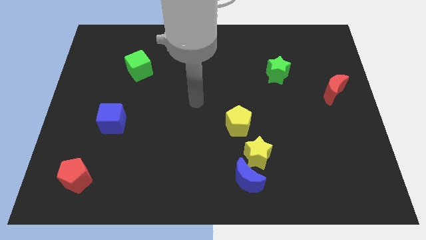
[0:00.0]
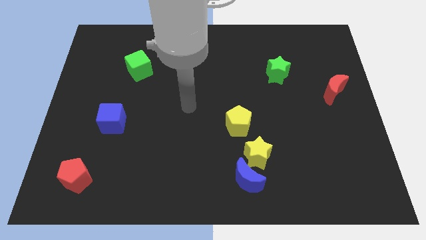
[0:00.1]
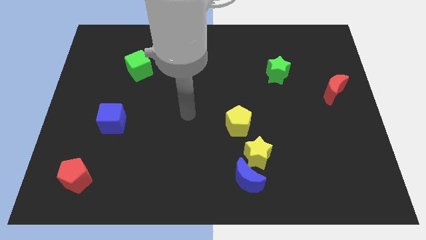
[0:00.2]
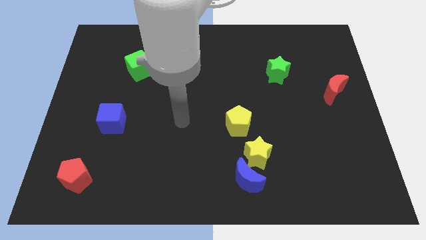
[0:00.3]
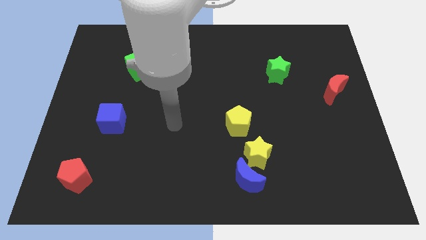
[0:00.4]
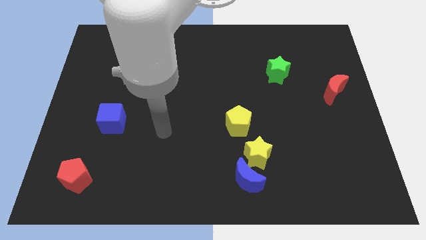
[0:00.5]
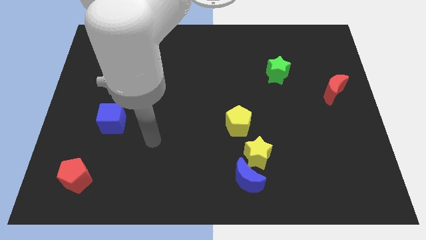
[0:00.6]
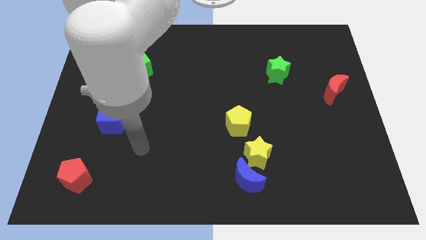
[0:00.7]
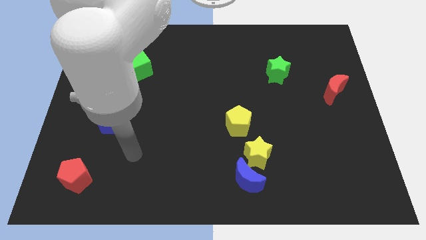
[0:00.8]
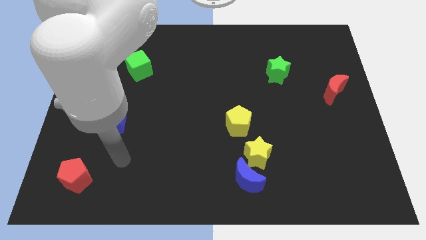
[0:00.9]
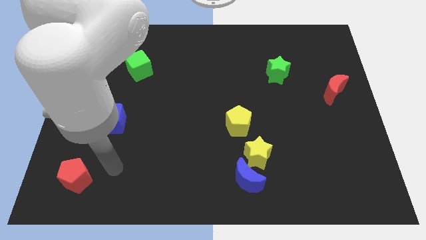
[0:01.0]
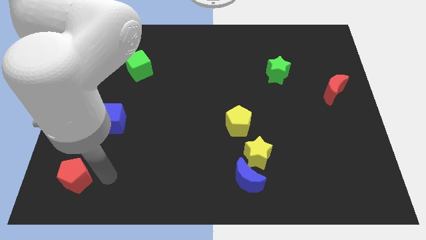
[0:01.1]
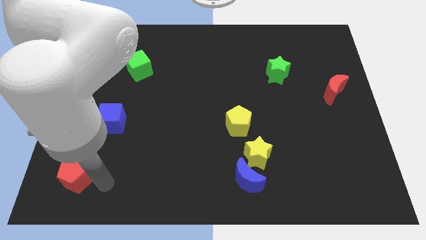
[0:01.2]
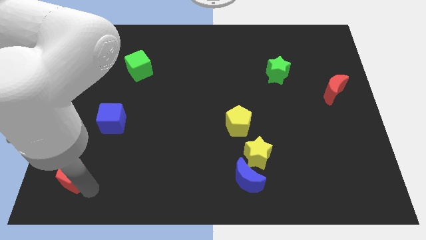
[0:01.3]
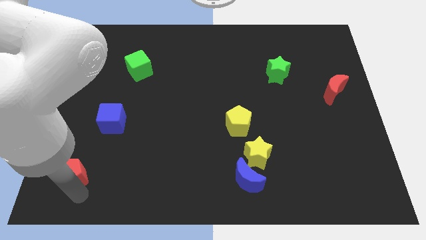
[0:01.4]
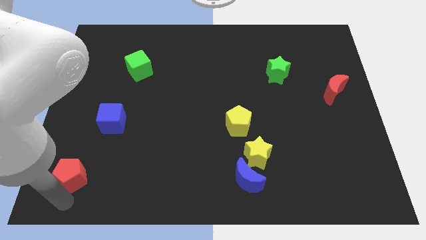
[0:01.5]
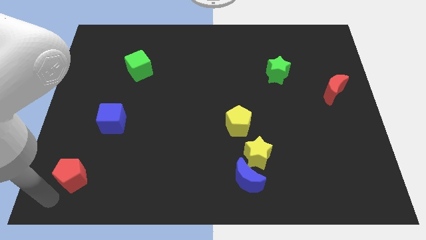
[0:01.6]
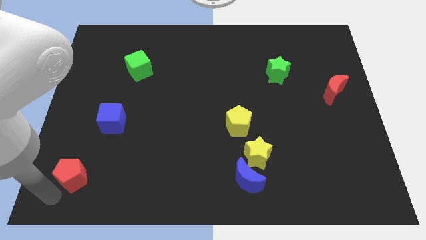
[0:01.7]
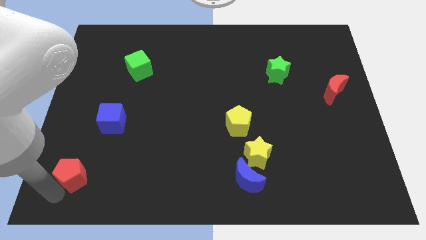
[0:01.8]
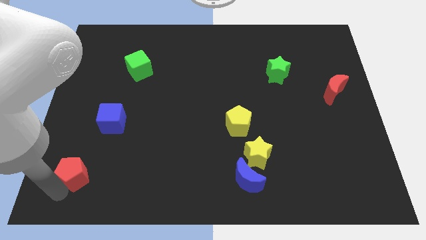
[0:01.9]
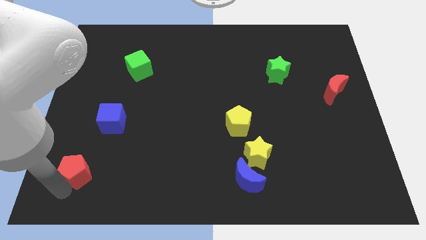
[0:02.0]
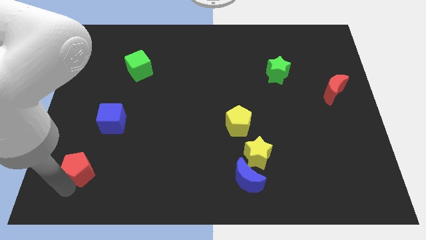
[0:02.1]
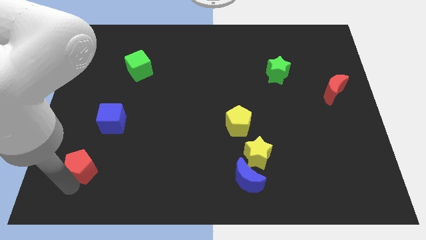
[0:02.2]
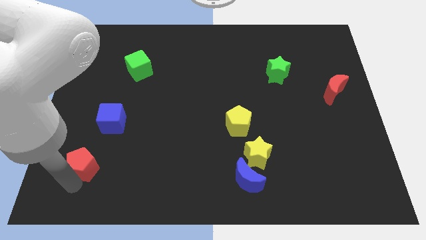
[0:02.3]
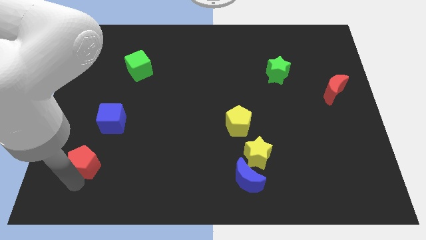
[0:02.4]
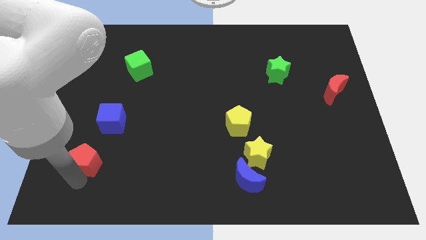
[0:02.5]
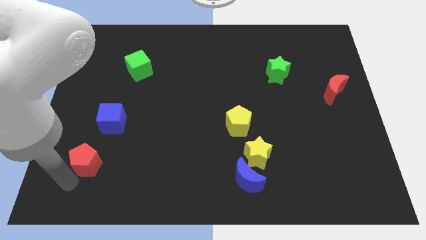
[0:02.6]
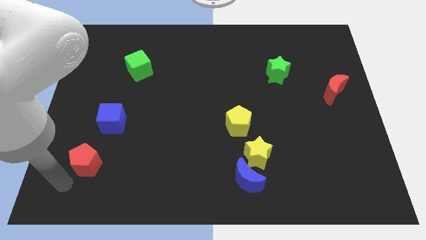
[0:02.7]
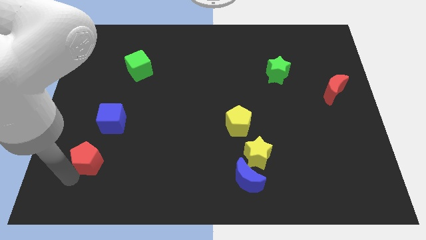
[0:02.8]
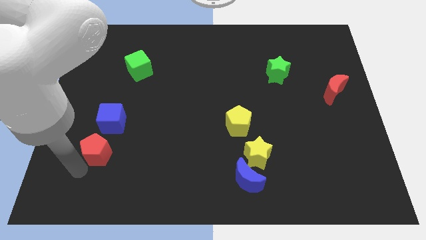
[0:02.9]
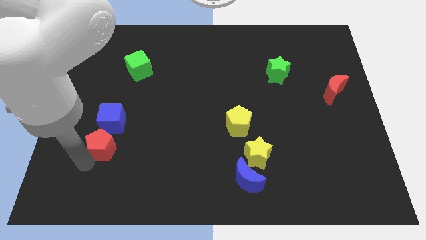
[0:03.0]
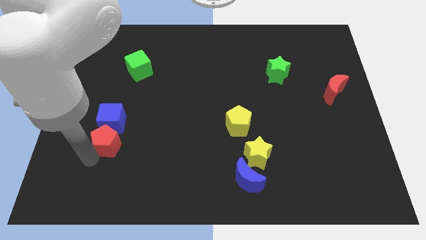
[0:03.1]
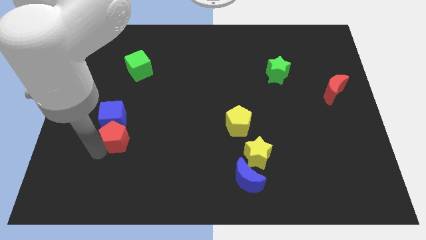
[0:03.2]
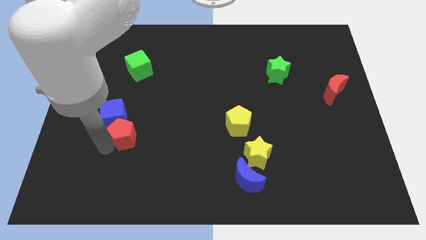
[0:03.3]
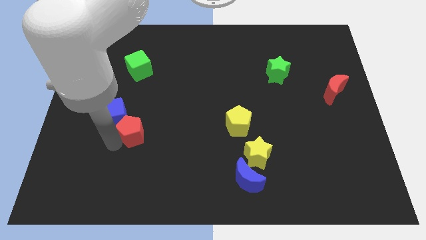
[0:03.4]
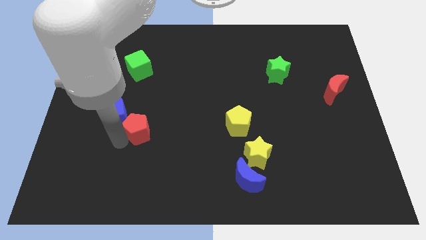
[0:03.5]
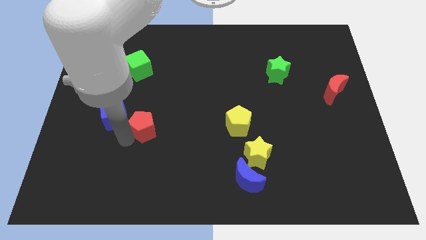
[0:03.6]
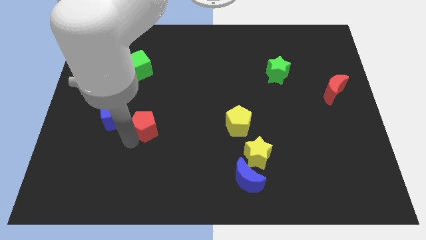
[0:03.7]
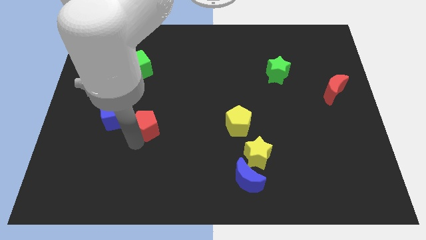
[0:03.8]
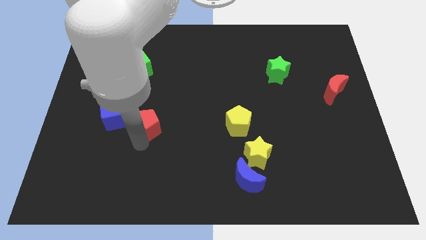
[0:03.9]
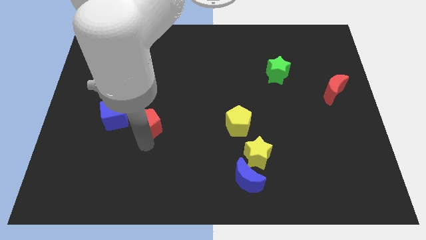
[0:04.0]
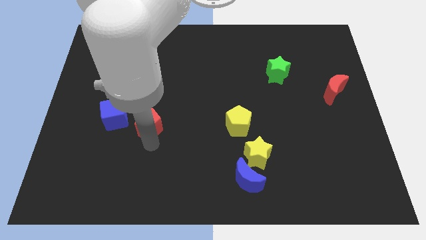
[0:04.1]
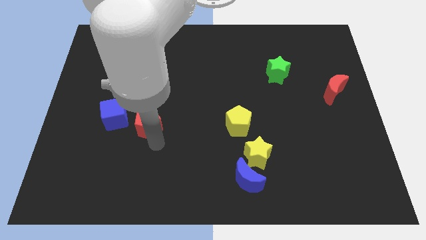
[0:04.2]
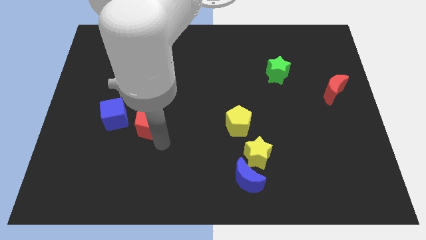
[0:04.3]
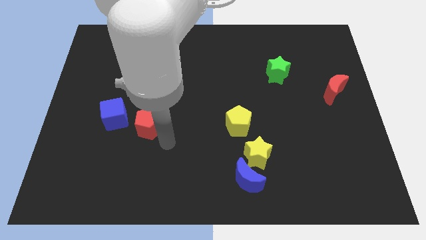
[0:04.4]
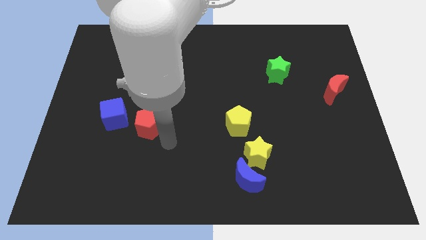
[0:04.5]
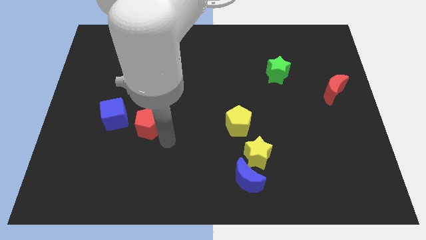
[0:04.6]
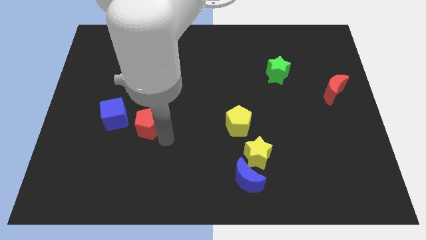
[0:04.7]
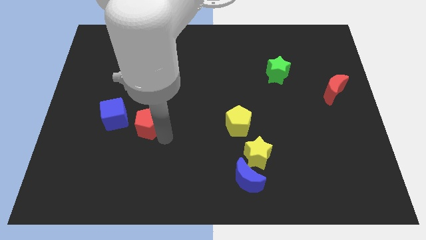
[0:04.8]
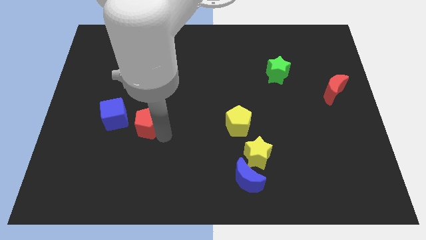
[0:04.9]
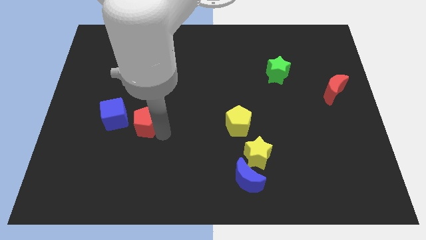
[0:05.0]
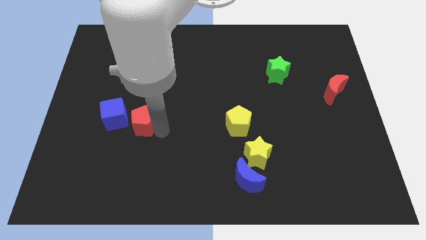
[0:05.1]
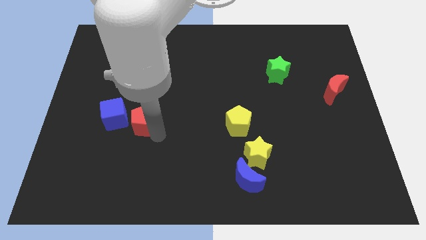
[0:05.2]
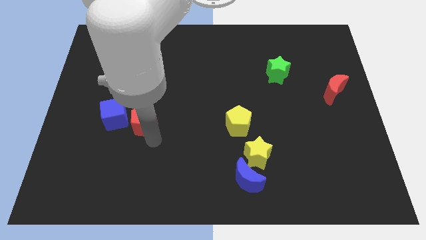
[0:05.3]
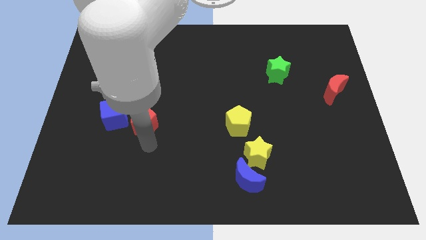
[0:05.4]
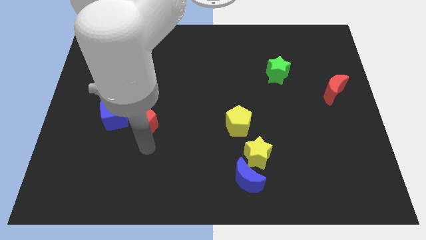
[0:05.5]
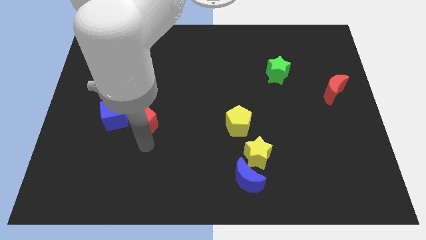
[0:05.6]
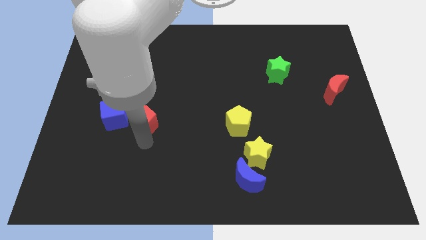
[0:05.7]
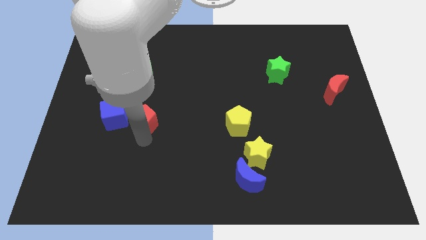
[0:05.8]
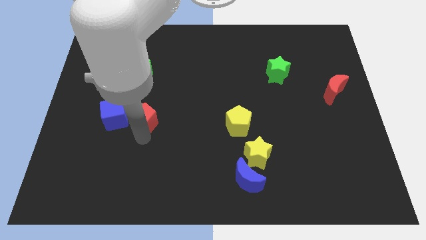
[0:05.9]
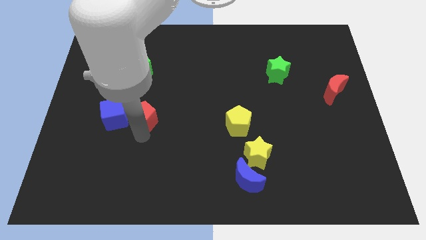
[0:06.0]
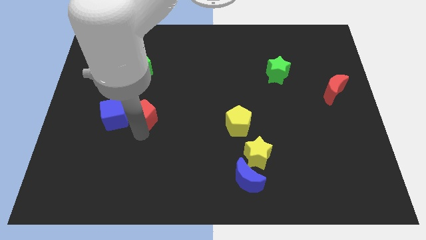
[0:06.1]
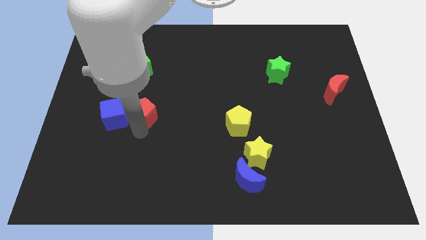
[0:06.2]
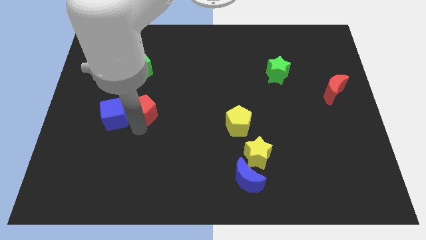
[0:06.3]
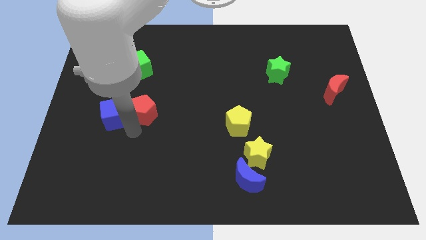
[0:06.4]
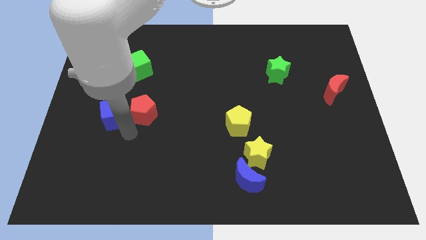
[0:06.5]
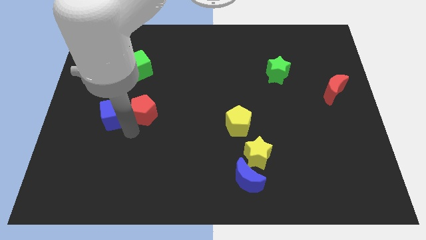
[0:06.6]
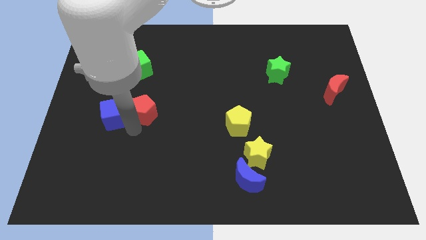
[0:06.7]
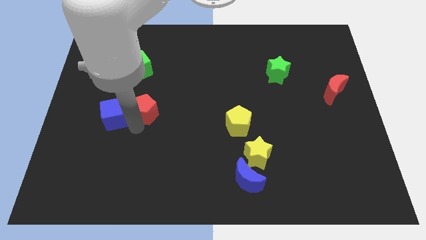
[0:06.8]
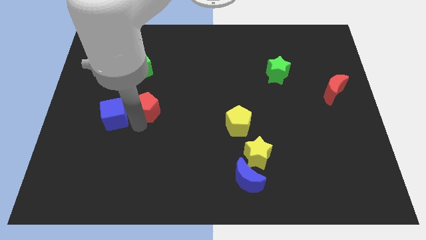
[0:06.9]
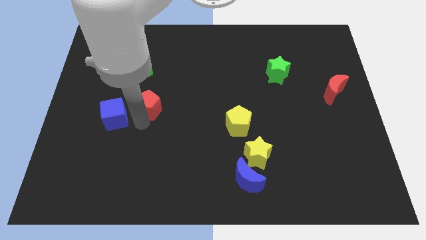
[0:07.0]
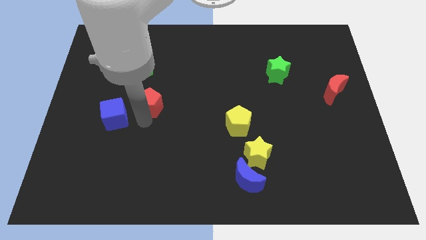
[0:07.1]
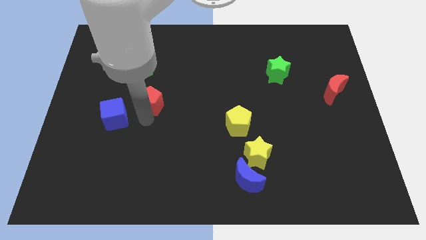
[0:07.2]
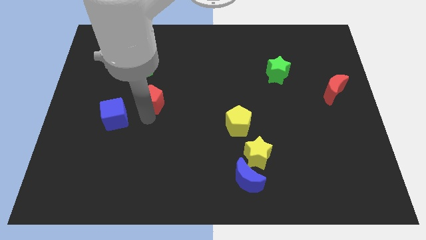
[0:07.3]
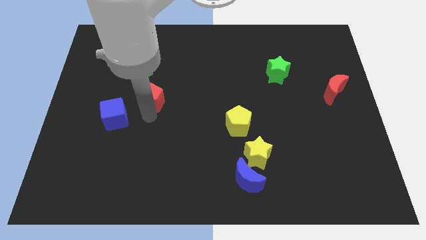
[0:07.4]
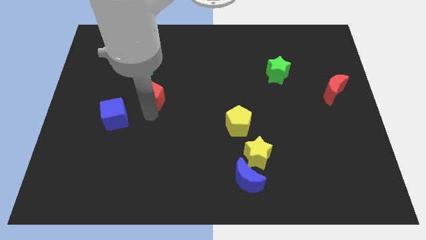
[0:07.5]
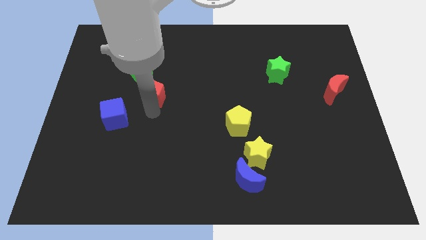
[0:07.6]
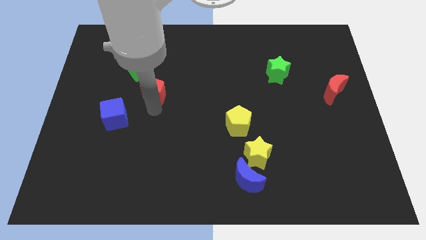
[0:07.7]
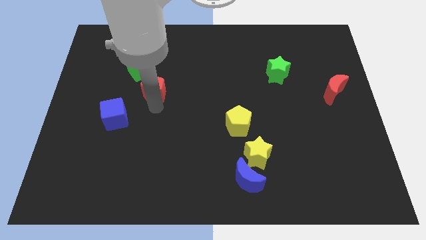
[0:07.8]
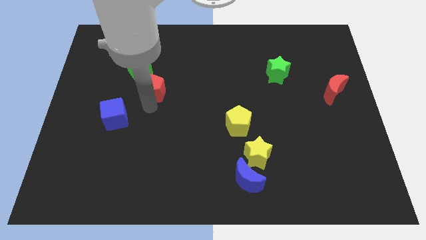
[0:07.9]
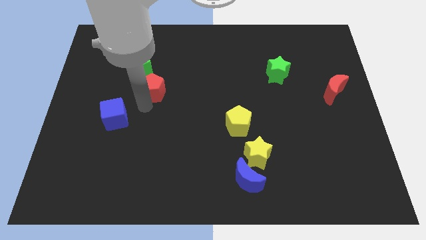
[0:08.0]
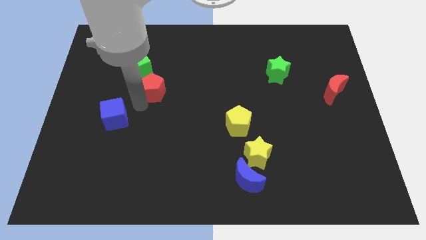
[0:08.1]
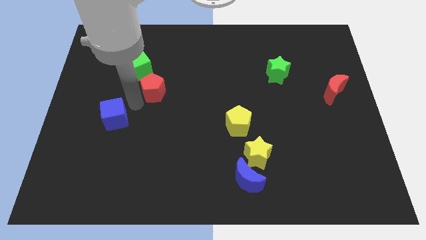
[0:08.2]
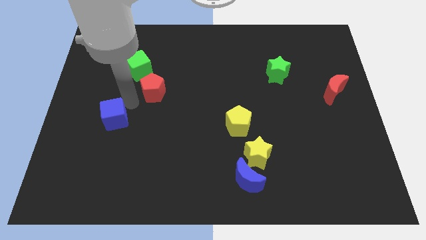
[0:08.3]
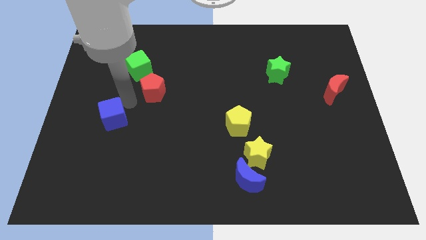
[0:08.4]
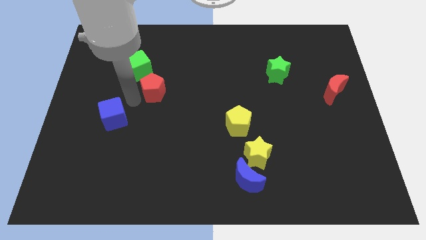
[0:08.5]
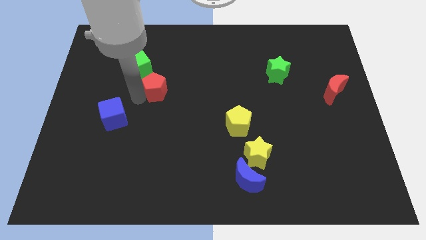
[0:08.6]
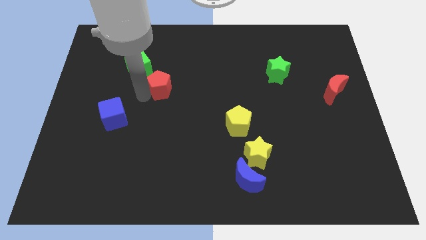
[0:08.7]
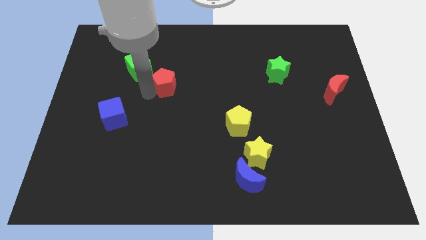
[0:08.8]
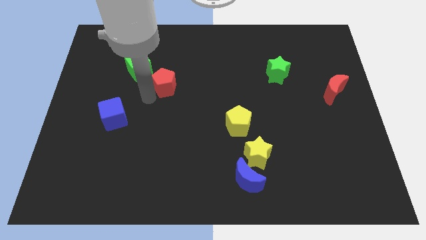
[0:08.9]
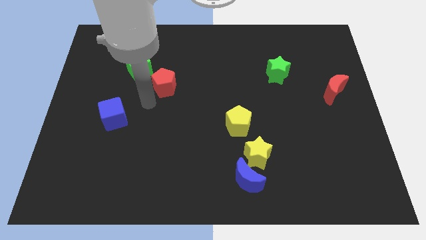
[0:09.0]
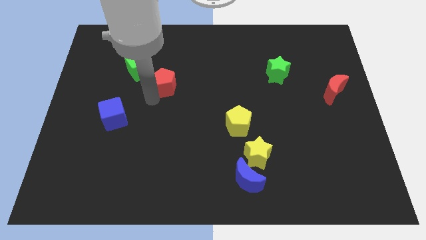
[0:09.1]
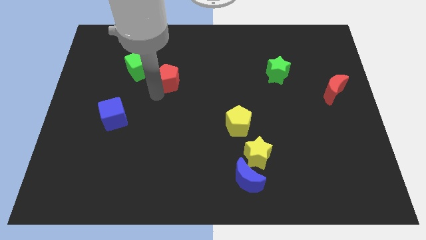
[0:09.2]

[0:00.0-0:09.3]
move the red pentagon just right of the green cube
